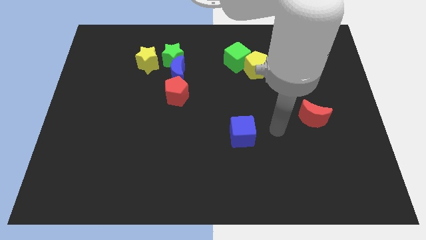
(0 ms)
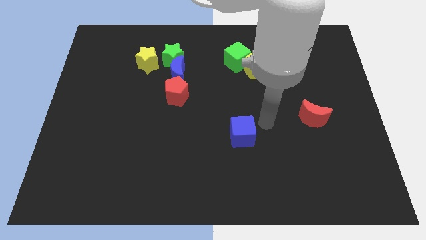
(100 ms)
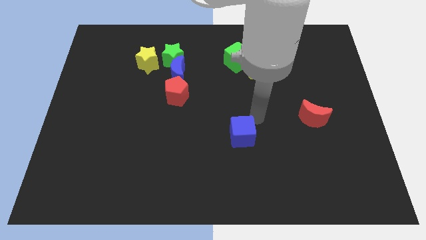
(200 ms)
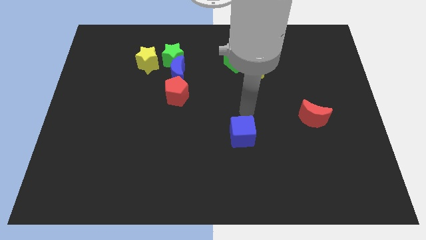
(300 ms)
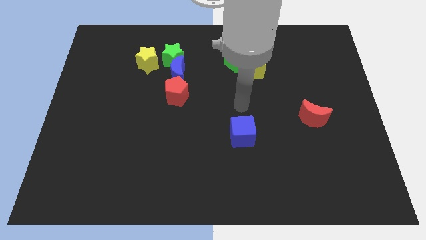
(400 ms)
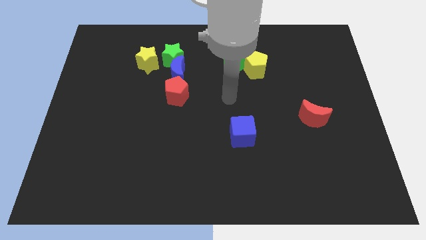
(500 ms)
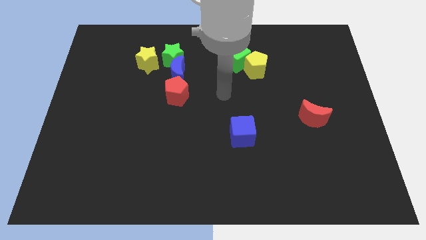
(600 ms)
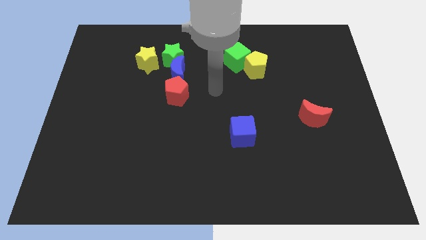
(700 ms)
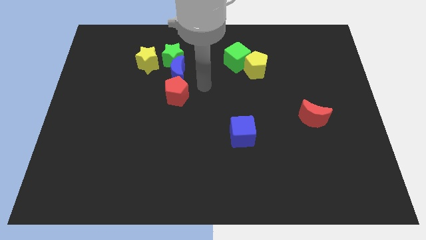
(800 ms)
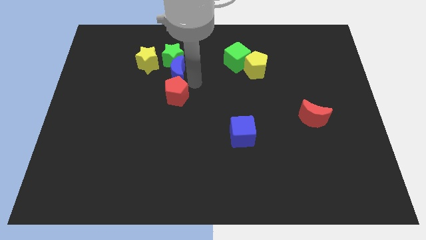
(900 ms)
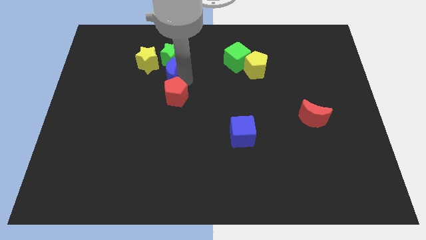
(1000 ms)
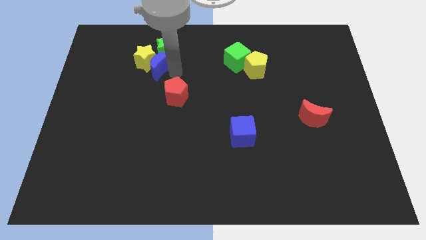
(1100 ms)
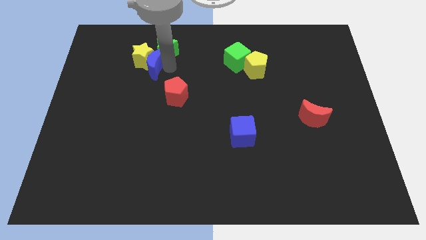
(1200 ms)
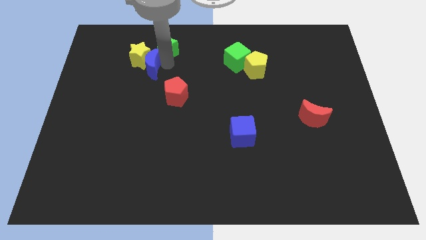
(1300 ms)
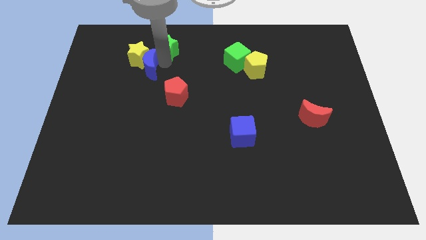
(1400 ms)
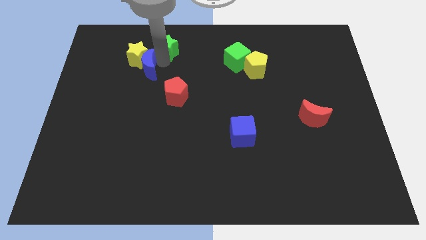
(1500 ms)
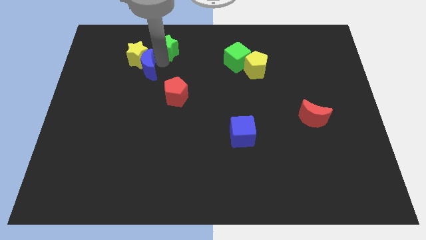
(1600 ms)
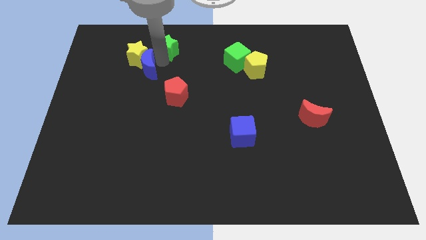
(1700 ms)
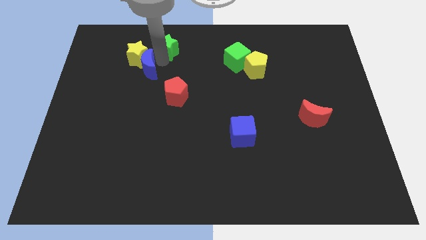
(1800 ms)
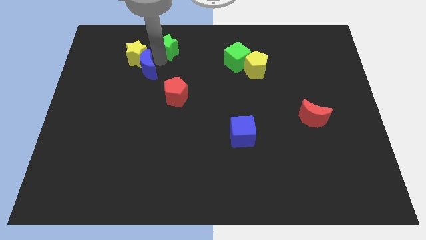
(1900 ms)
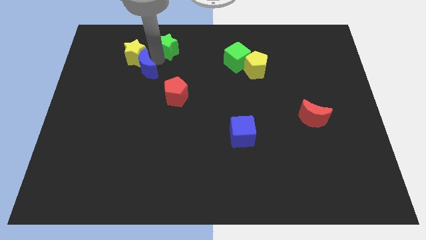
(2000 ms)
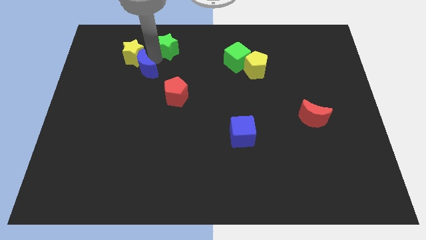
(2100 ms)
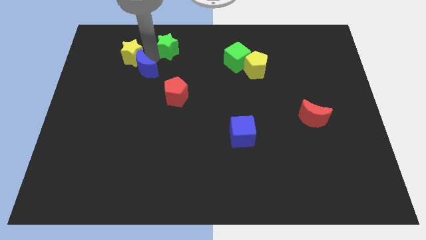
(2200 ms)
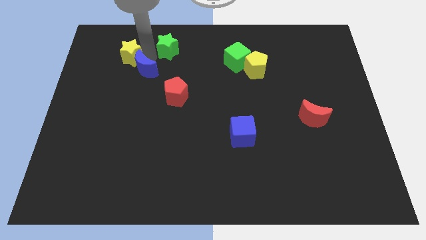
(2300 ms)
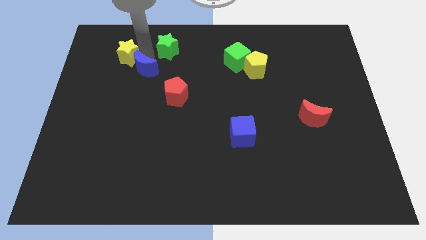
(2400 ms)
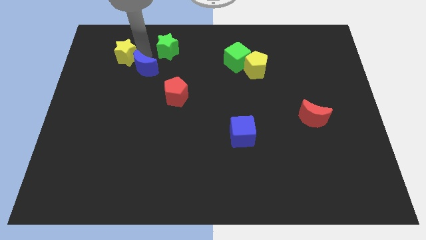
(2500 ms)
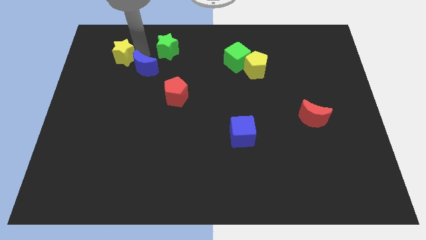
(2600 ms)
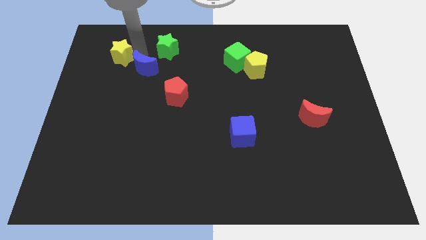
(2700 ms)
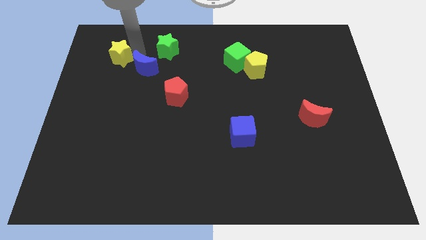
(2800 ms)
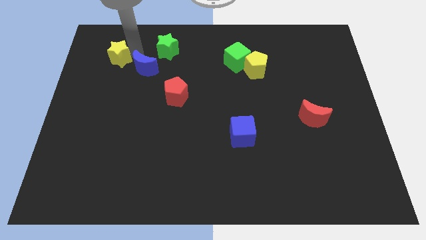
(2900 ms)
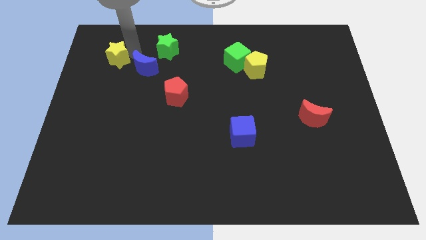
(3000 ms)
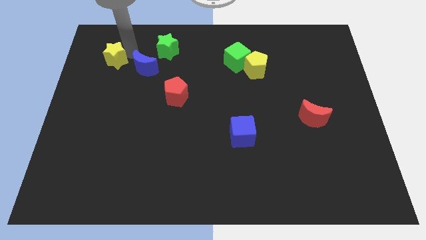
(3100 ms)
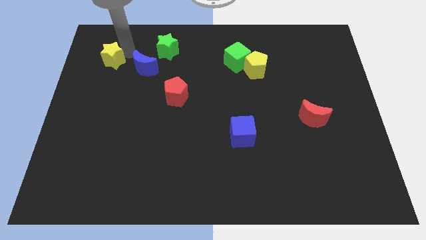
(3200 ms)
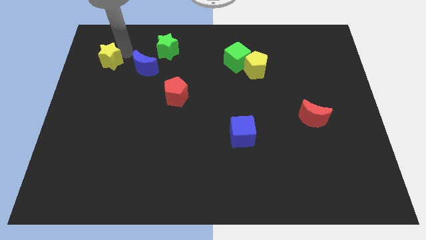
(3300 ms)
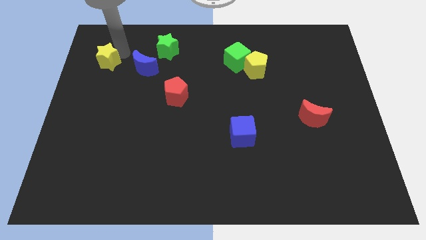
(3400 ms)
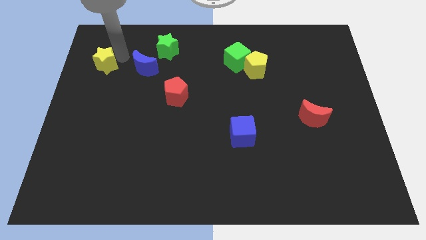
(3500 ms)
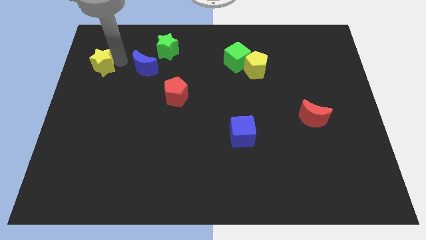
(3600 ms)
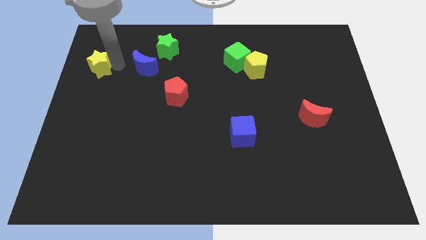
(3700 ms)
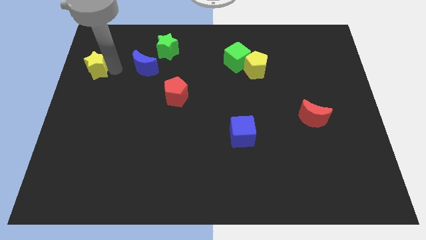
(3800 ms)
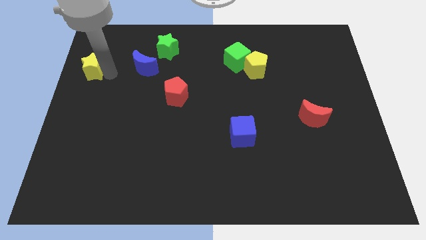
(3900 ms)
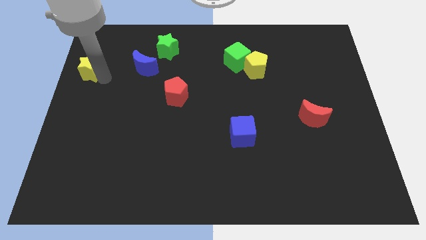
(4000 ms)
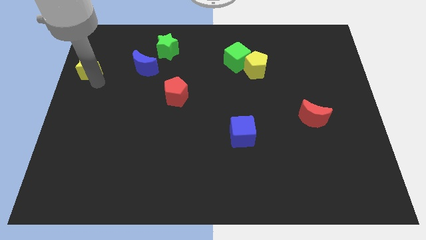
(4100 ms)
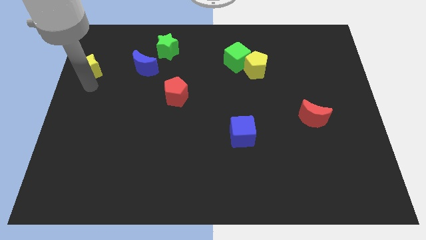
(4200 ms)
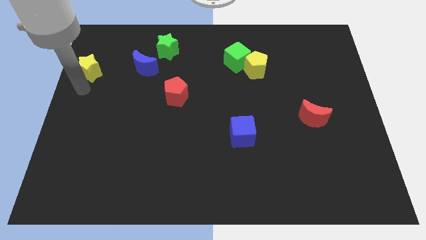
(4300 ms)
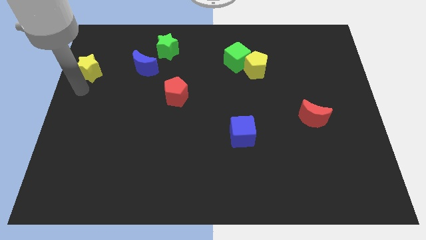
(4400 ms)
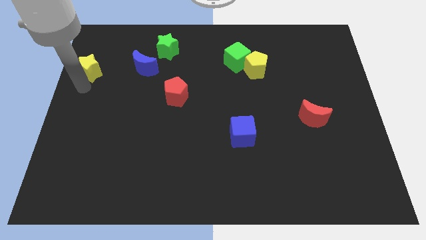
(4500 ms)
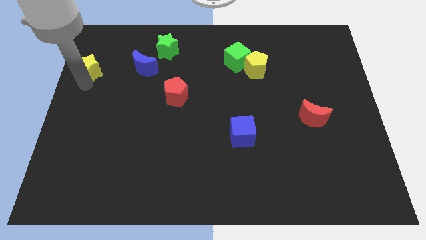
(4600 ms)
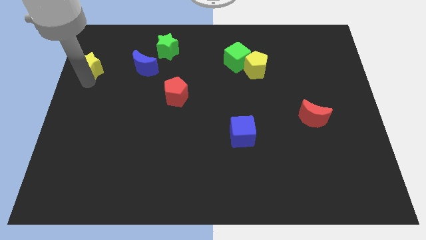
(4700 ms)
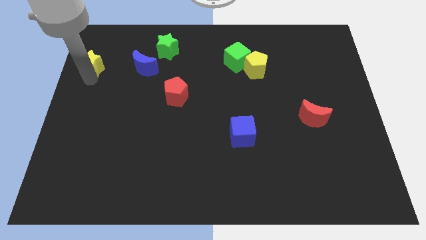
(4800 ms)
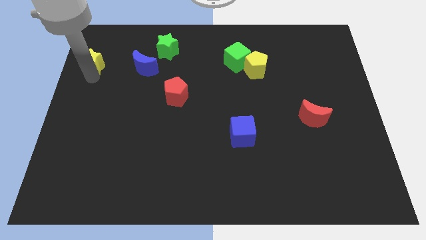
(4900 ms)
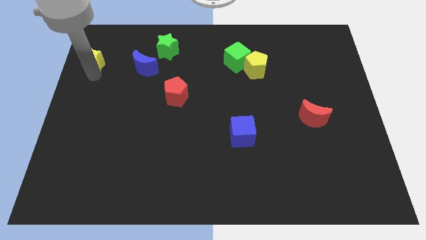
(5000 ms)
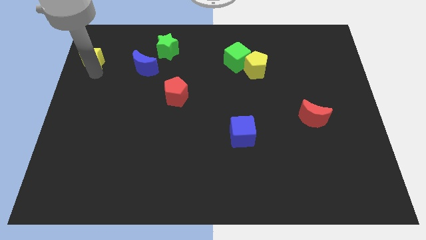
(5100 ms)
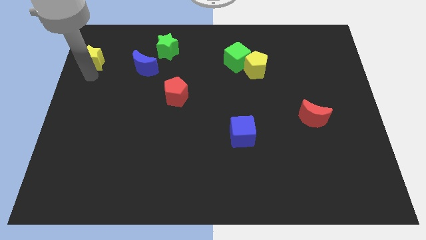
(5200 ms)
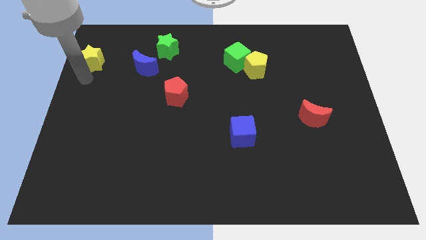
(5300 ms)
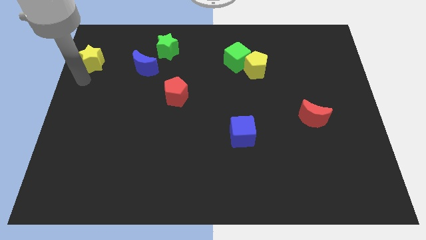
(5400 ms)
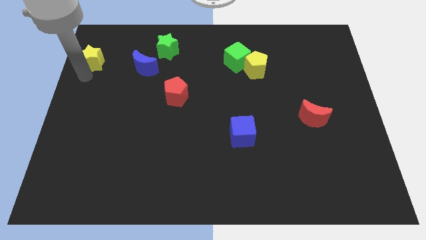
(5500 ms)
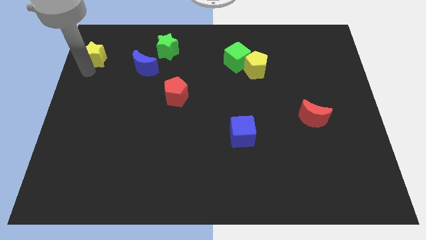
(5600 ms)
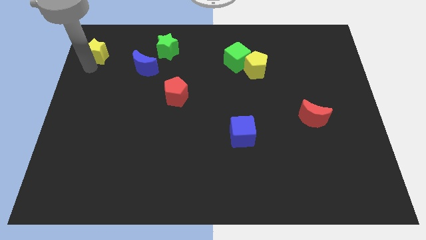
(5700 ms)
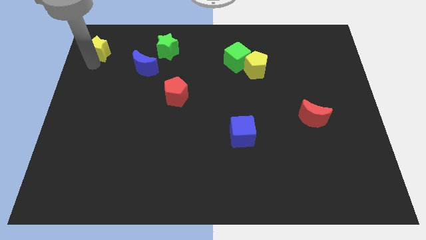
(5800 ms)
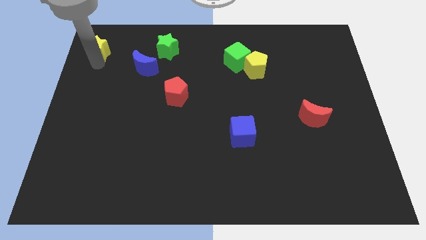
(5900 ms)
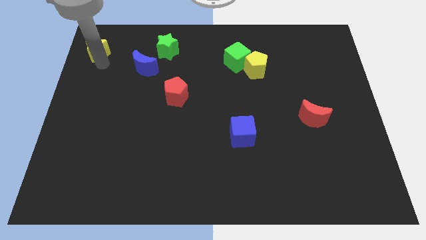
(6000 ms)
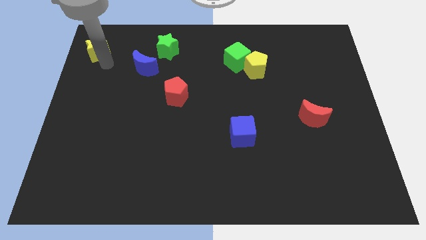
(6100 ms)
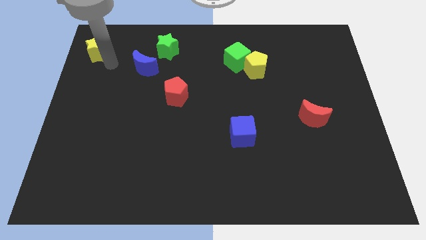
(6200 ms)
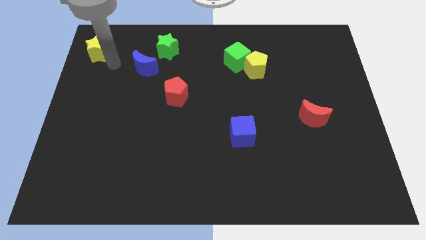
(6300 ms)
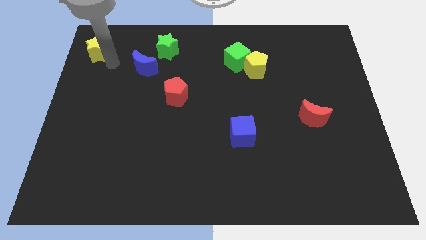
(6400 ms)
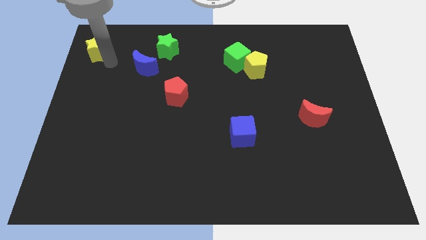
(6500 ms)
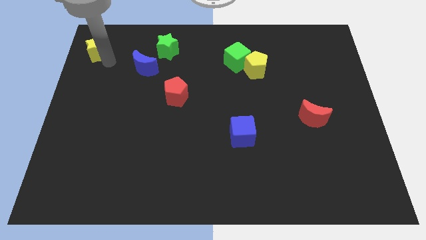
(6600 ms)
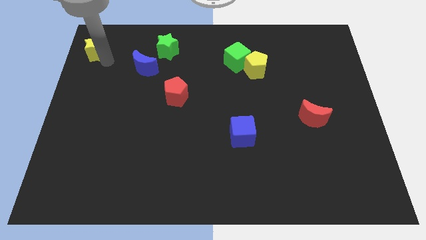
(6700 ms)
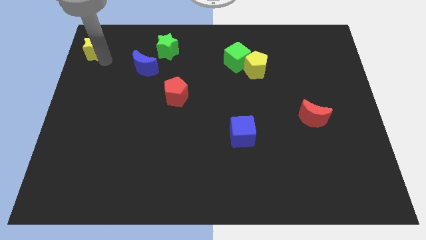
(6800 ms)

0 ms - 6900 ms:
put the yellow star to the upper left corner
